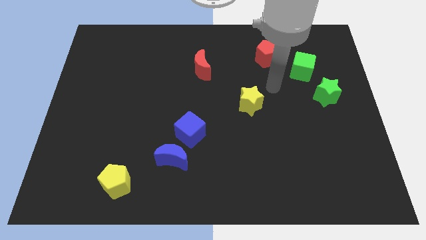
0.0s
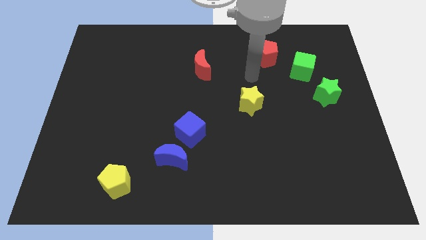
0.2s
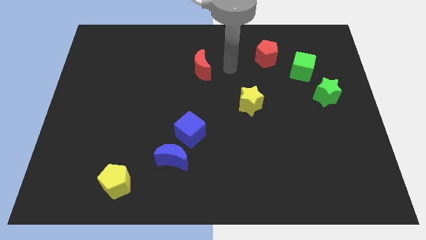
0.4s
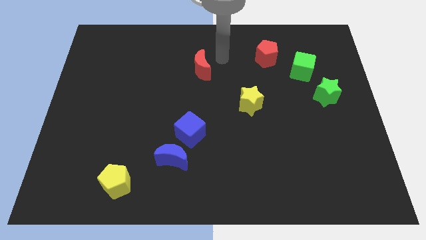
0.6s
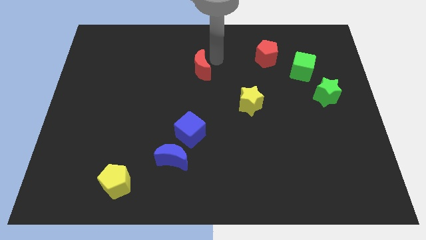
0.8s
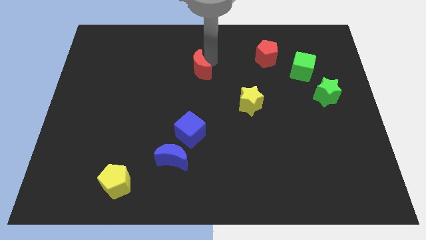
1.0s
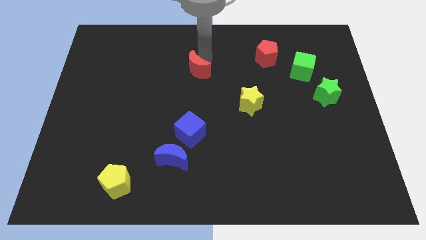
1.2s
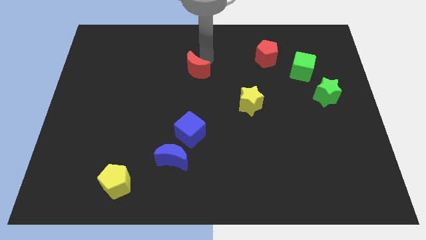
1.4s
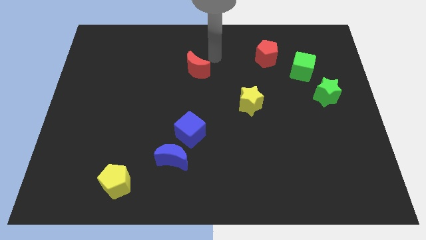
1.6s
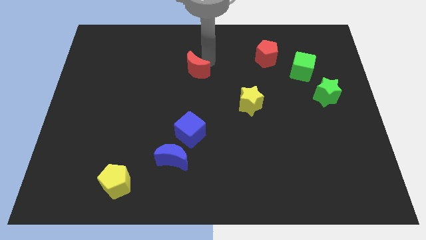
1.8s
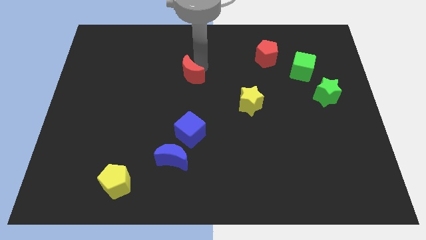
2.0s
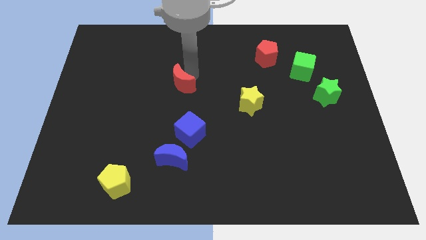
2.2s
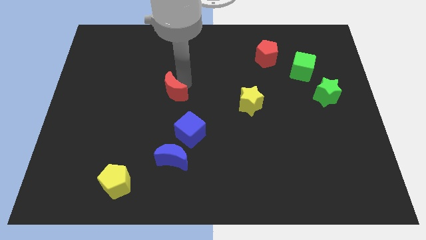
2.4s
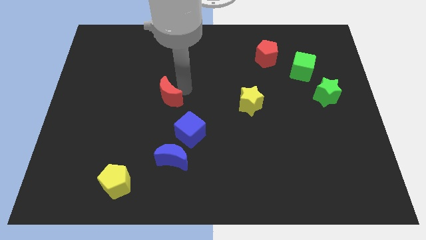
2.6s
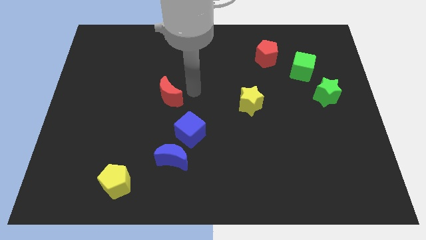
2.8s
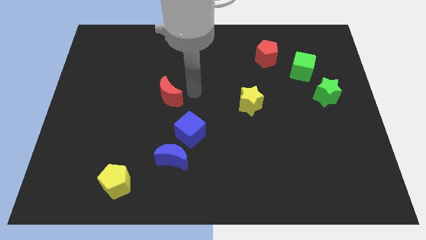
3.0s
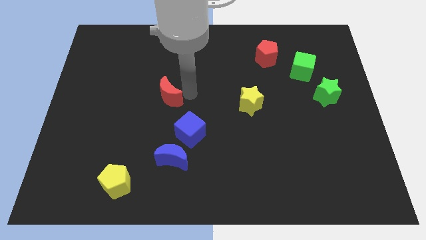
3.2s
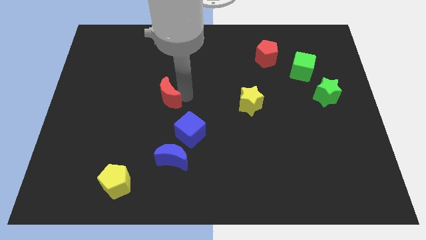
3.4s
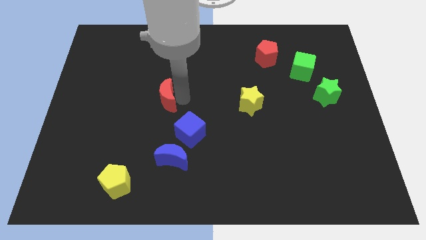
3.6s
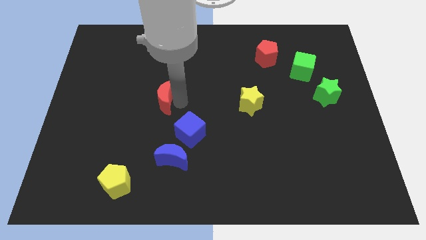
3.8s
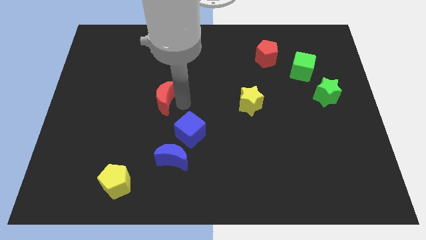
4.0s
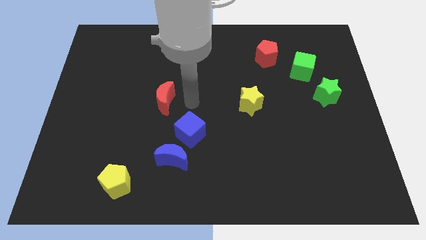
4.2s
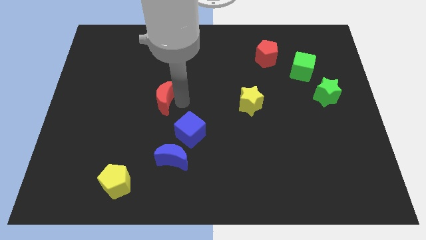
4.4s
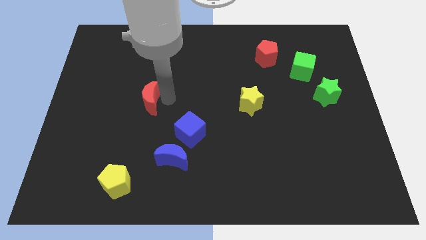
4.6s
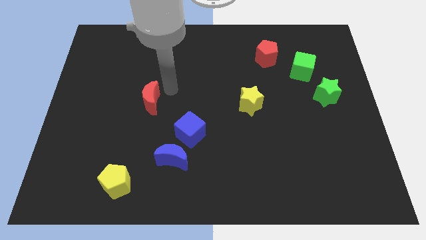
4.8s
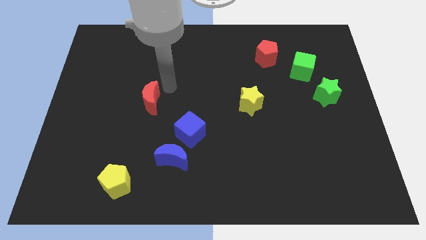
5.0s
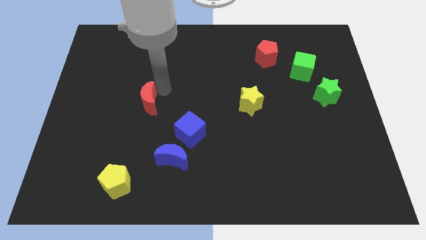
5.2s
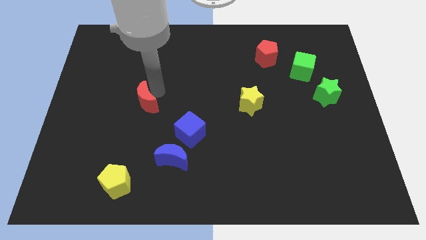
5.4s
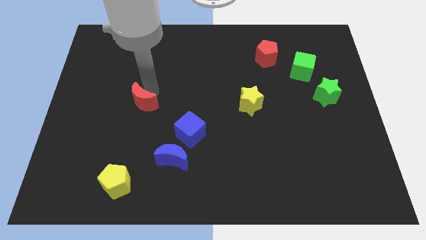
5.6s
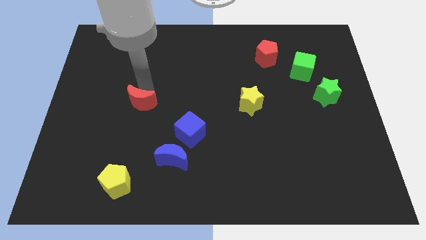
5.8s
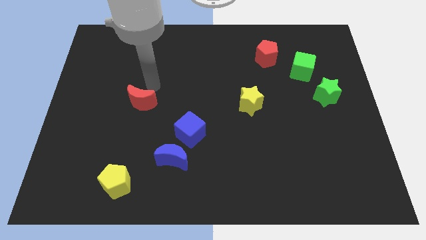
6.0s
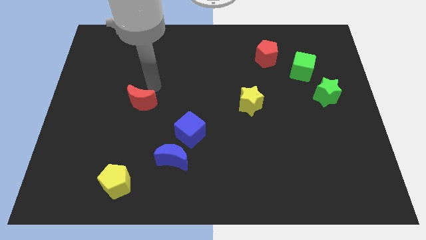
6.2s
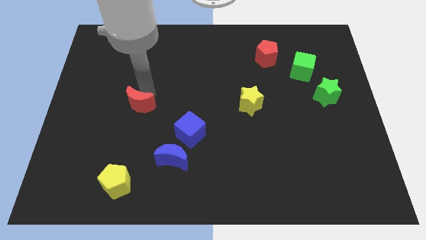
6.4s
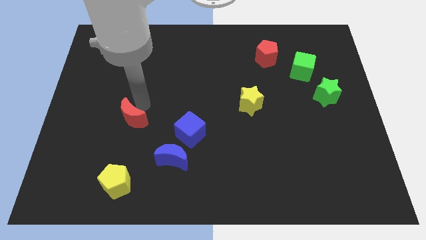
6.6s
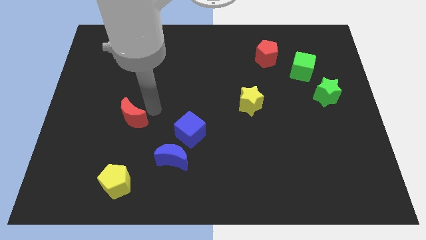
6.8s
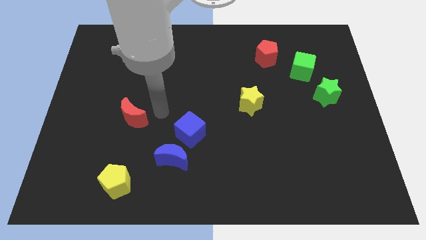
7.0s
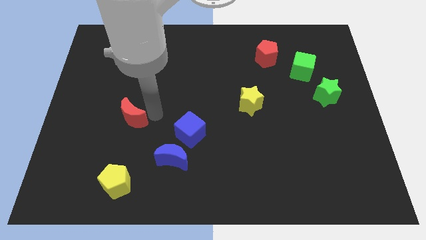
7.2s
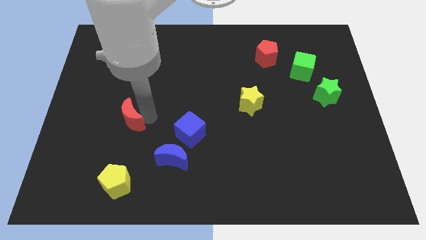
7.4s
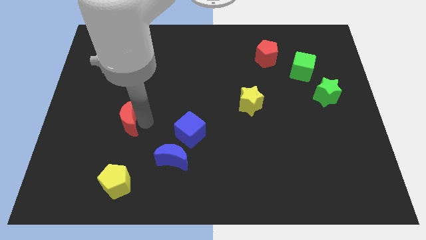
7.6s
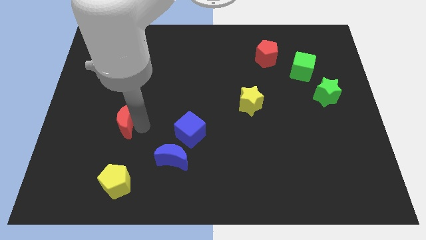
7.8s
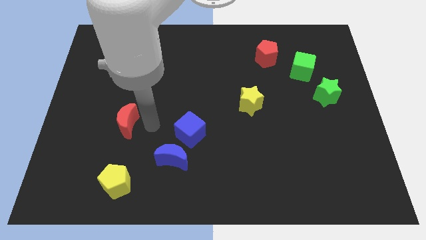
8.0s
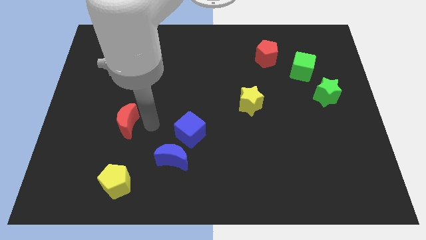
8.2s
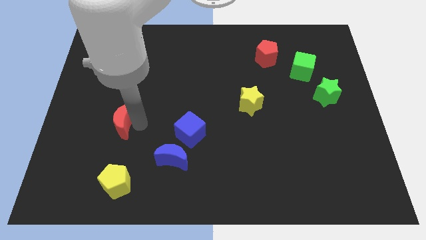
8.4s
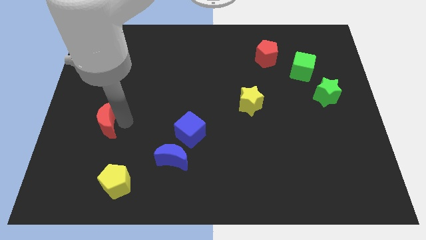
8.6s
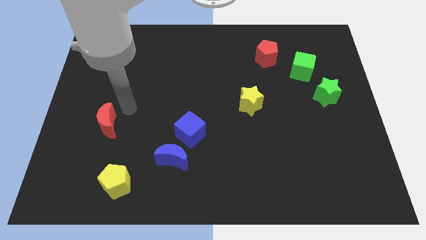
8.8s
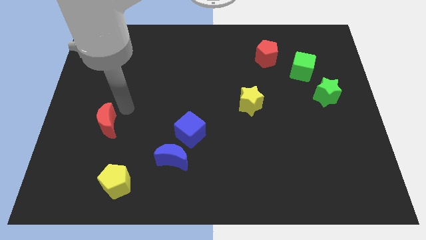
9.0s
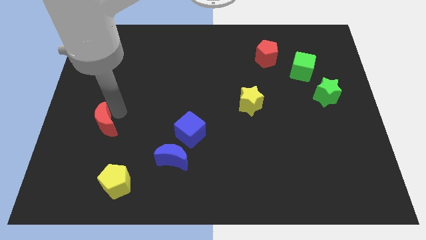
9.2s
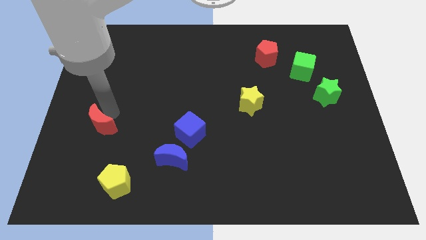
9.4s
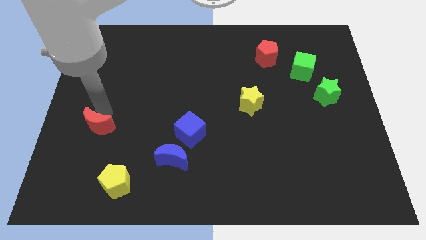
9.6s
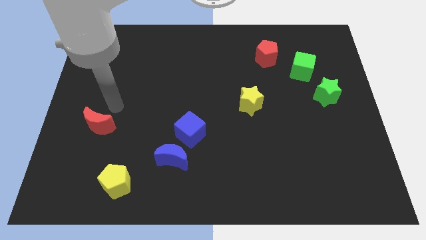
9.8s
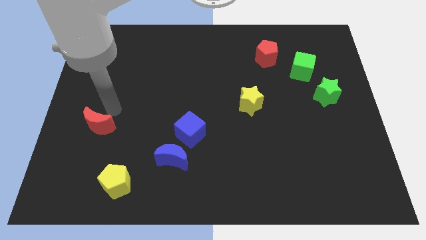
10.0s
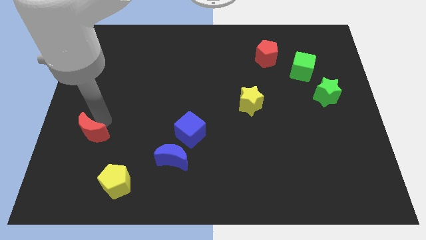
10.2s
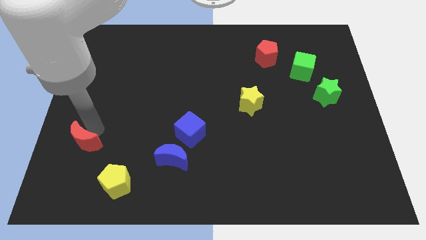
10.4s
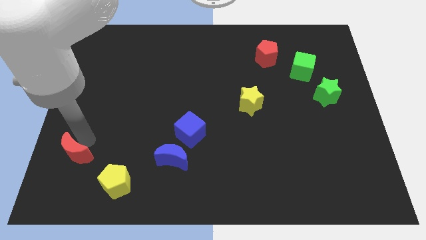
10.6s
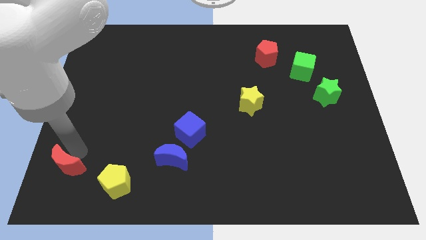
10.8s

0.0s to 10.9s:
put the red moon to the bottom left of the board

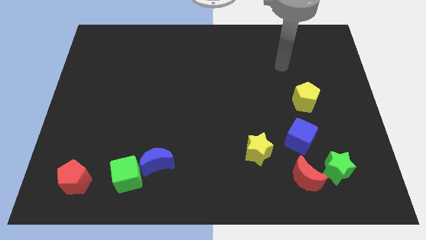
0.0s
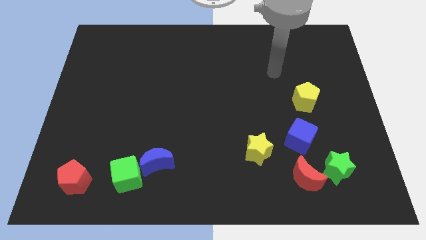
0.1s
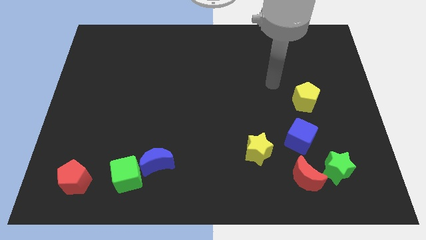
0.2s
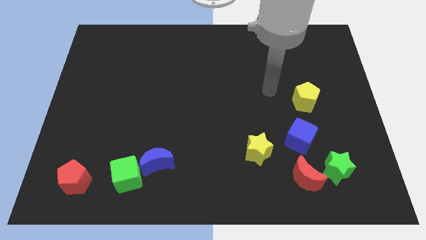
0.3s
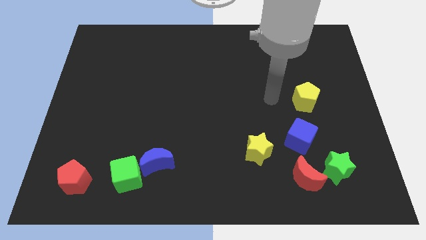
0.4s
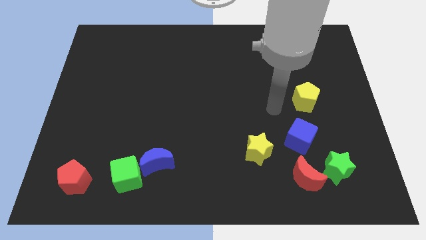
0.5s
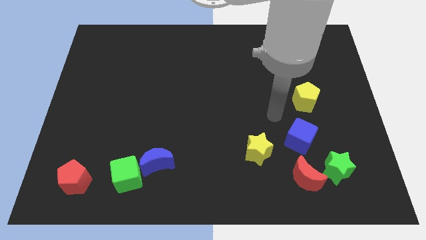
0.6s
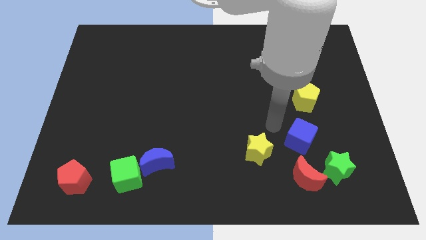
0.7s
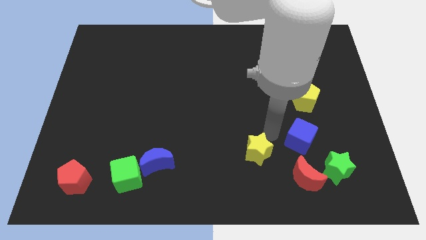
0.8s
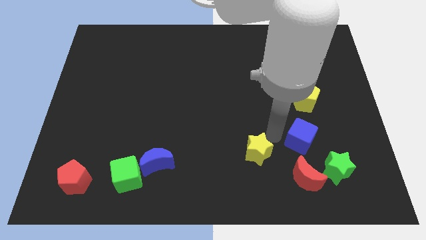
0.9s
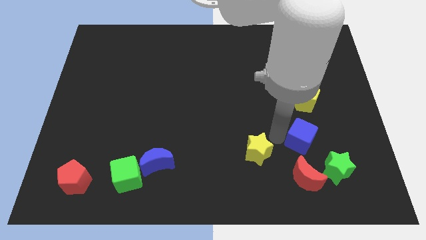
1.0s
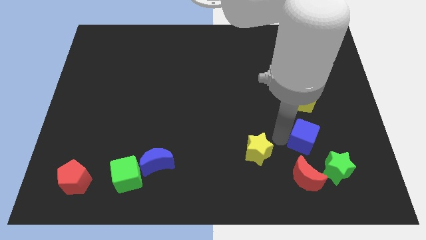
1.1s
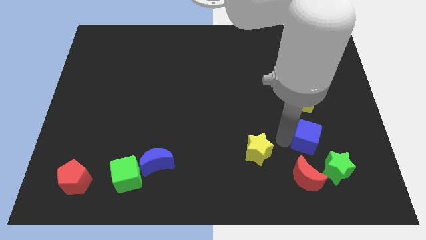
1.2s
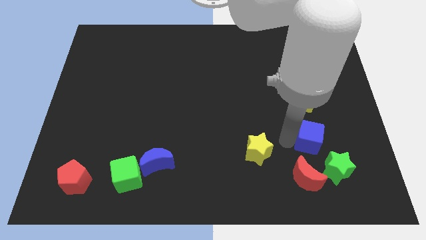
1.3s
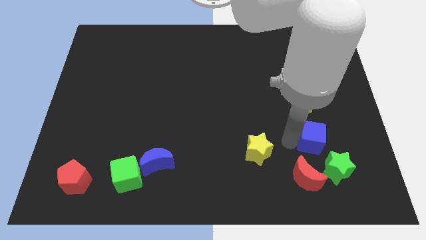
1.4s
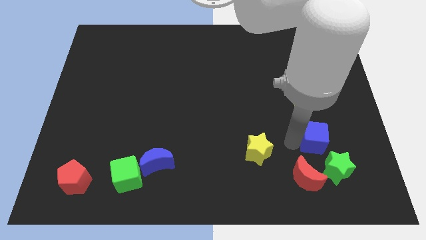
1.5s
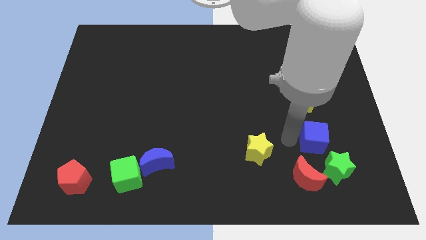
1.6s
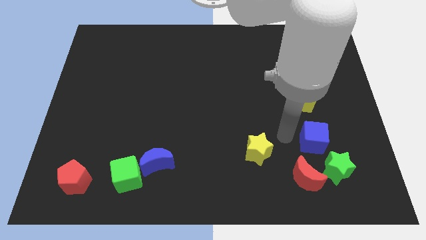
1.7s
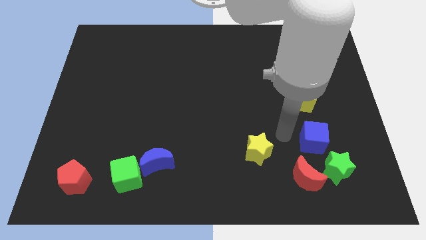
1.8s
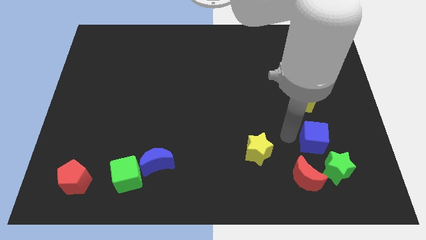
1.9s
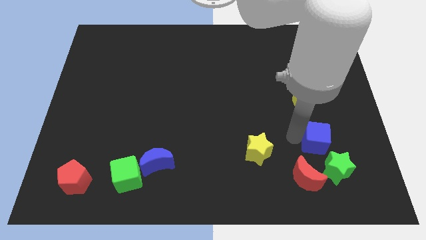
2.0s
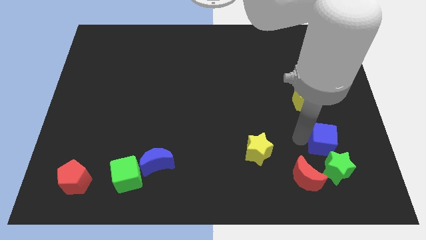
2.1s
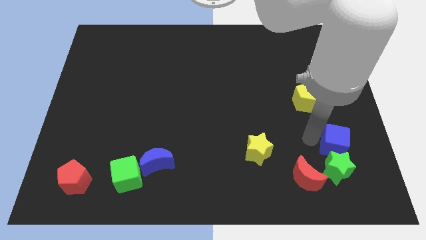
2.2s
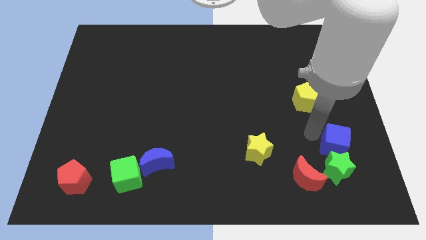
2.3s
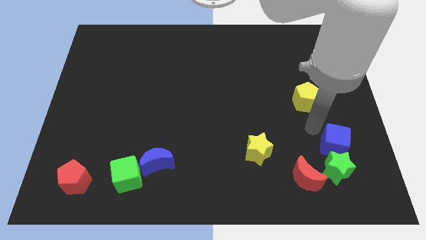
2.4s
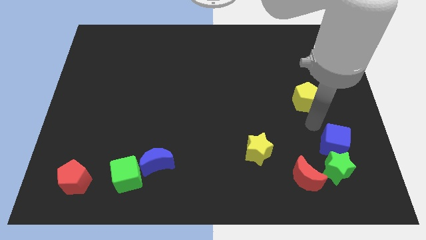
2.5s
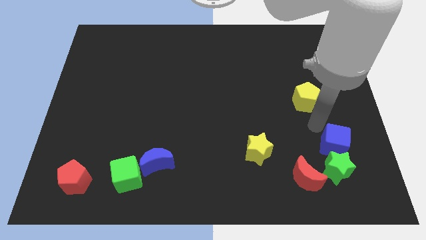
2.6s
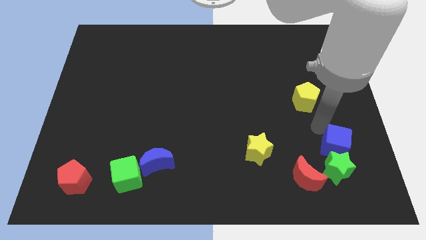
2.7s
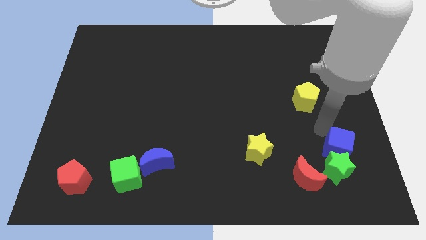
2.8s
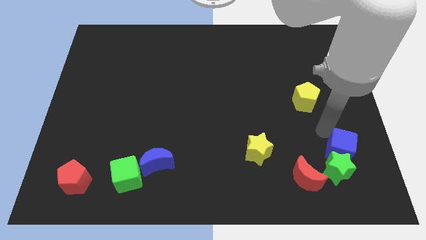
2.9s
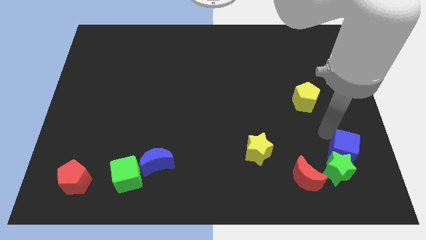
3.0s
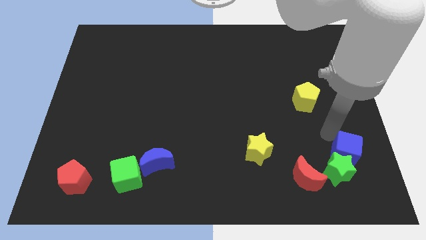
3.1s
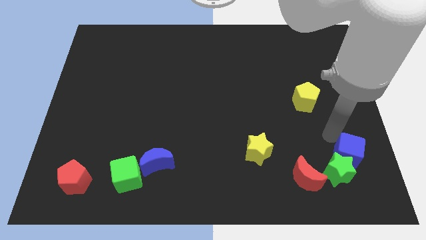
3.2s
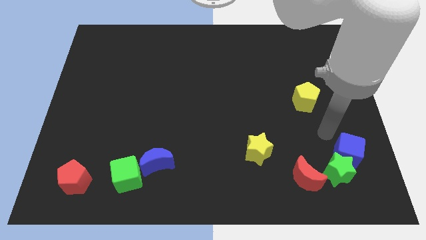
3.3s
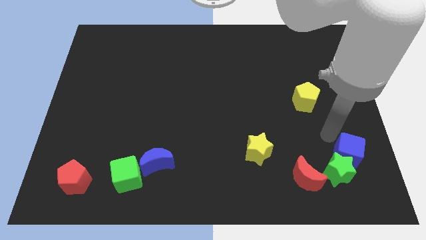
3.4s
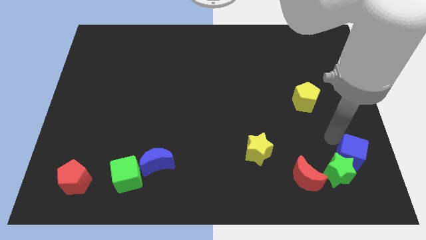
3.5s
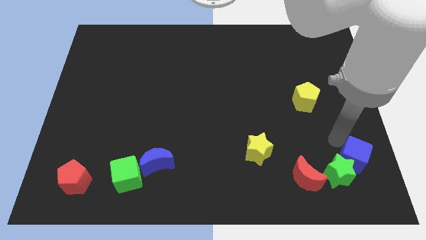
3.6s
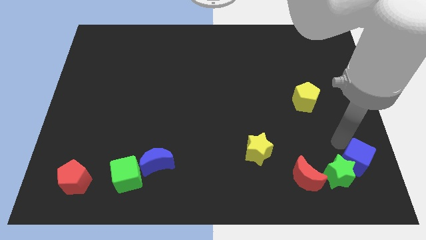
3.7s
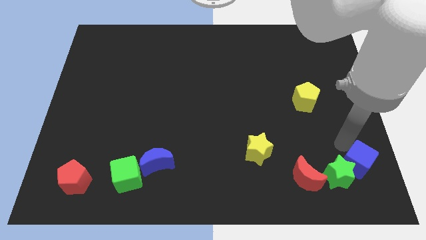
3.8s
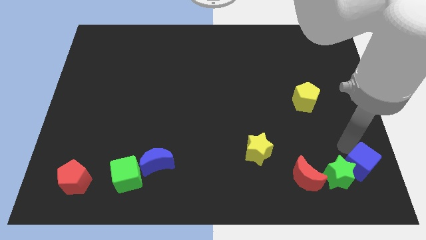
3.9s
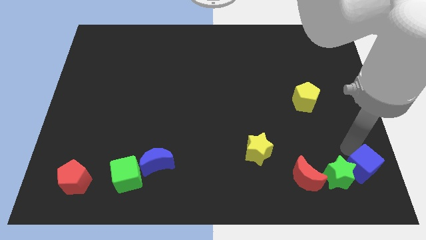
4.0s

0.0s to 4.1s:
push the blue cube to the lower right corner
